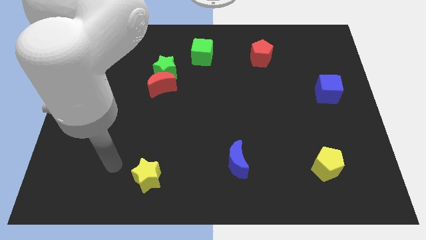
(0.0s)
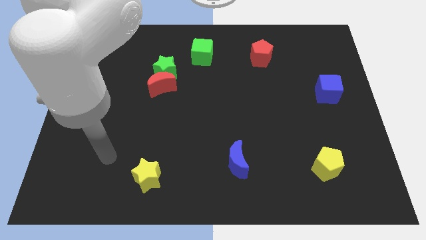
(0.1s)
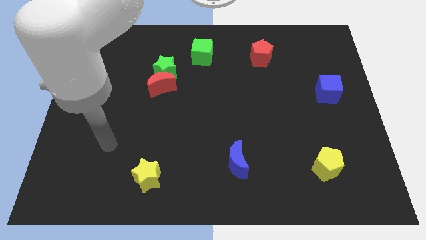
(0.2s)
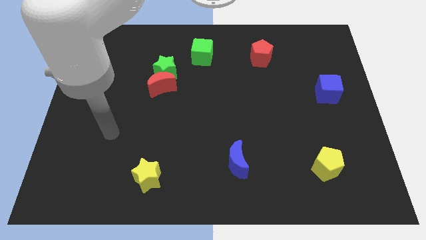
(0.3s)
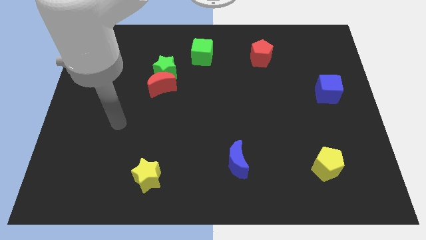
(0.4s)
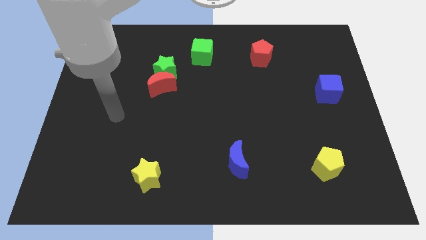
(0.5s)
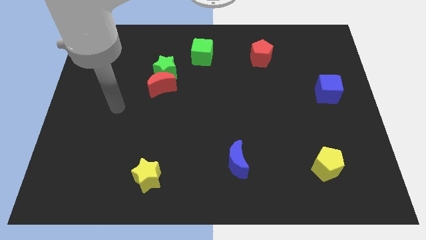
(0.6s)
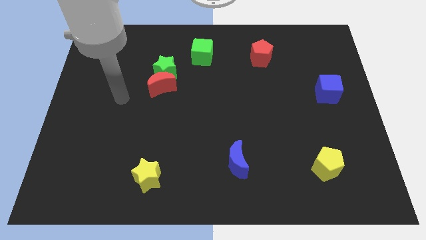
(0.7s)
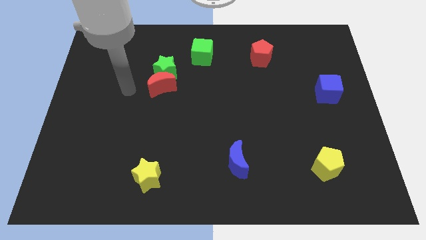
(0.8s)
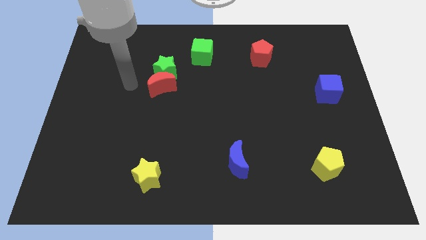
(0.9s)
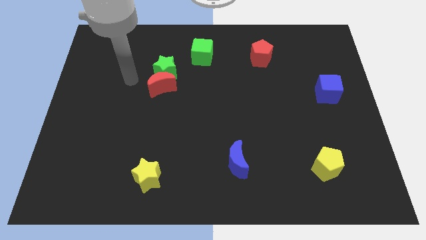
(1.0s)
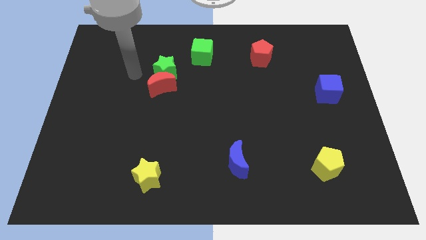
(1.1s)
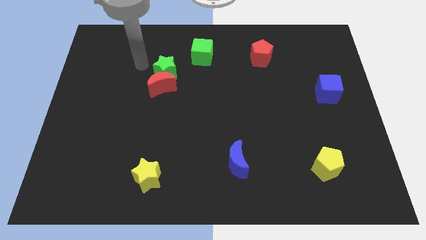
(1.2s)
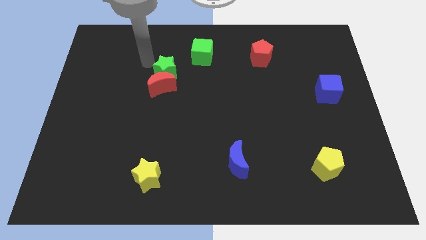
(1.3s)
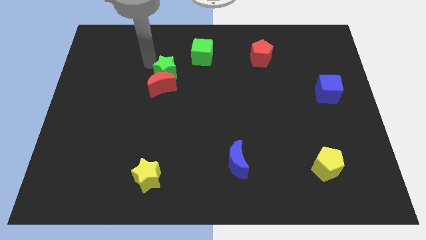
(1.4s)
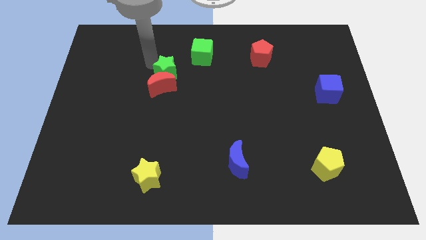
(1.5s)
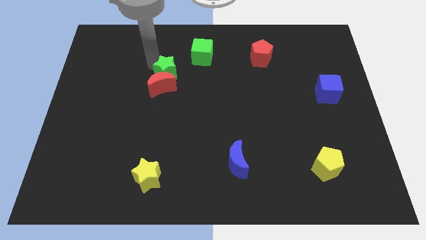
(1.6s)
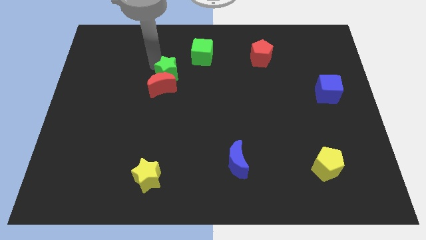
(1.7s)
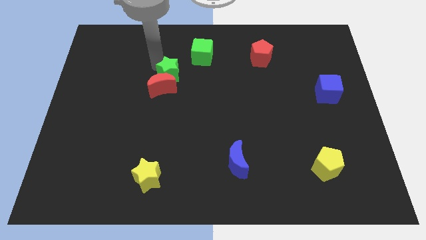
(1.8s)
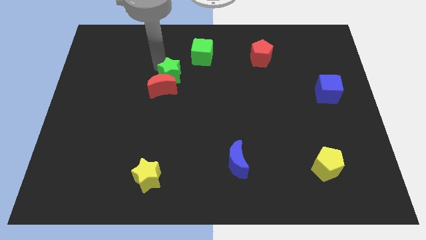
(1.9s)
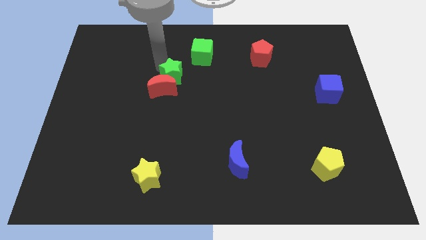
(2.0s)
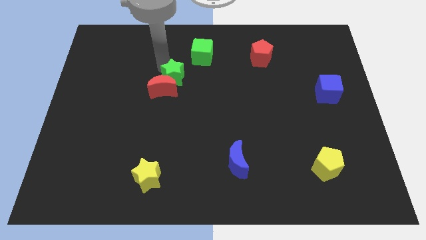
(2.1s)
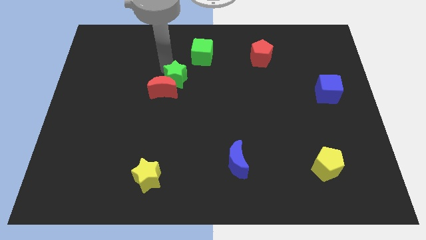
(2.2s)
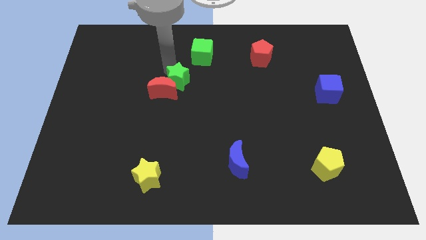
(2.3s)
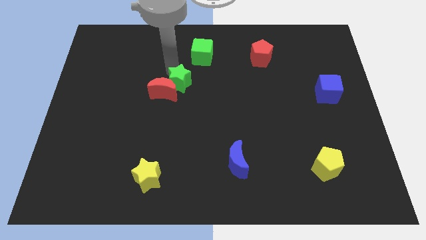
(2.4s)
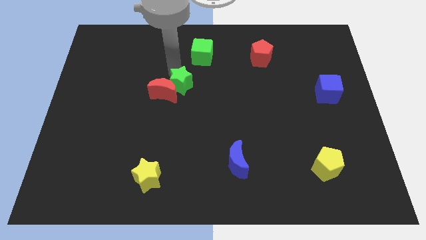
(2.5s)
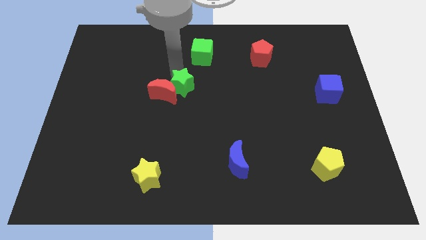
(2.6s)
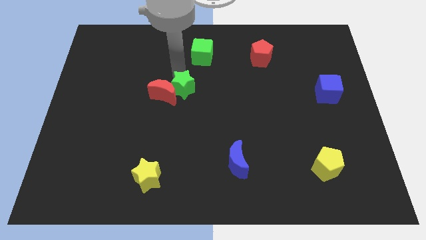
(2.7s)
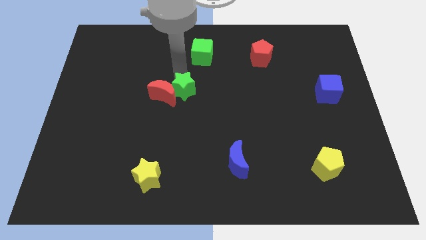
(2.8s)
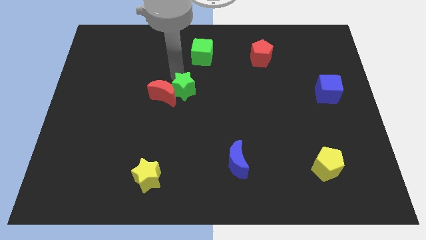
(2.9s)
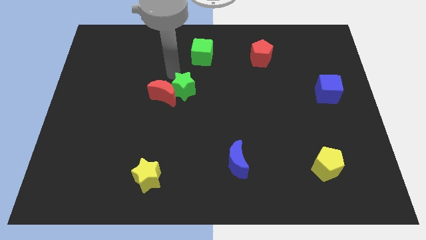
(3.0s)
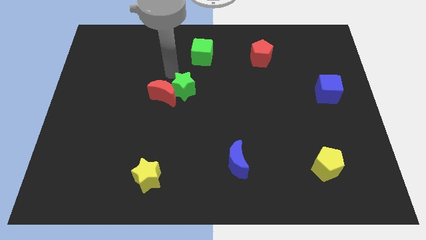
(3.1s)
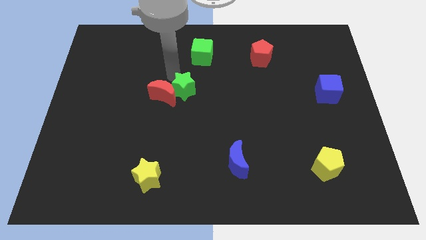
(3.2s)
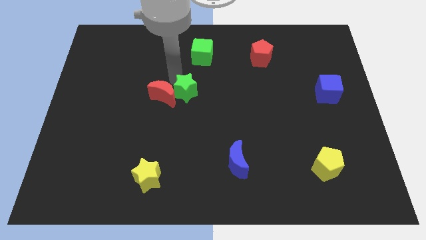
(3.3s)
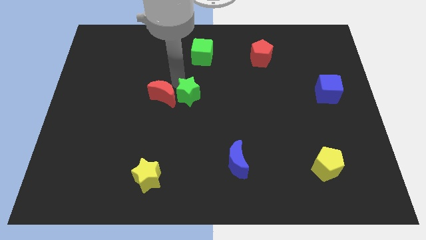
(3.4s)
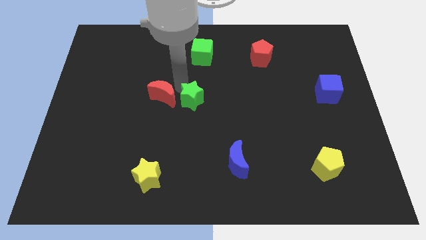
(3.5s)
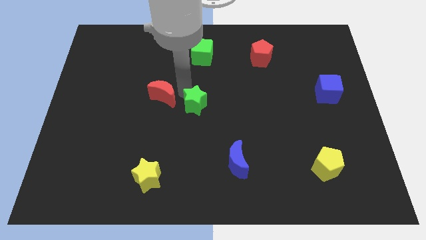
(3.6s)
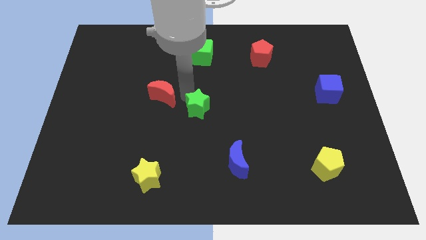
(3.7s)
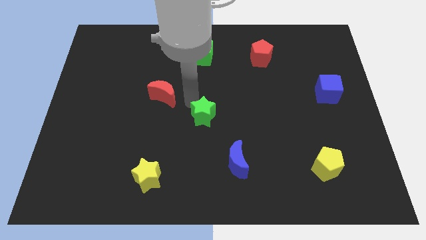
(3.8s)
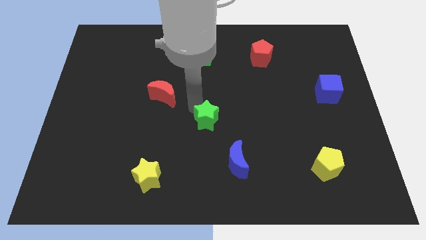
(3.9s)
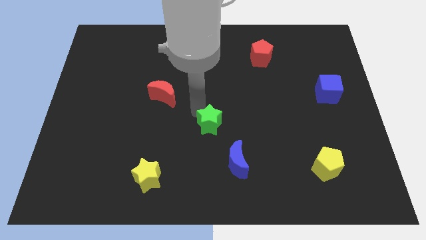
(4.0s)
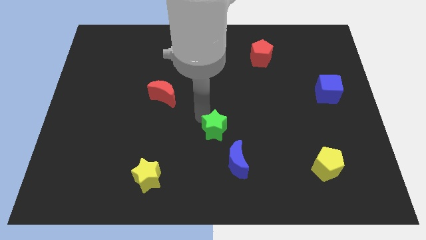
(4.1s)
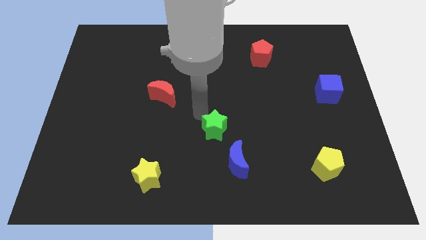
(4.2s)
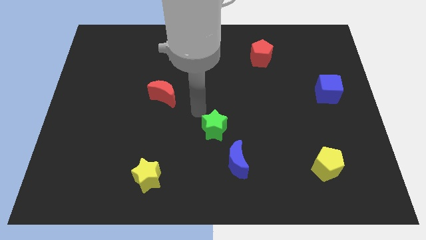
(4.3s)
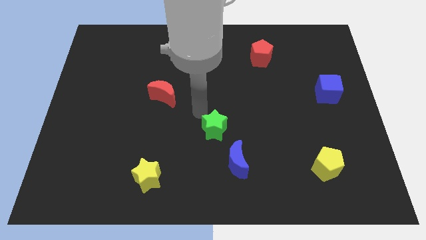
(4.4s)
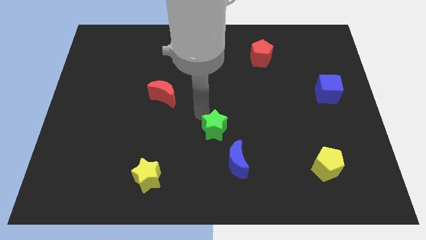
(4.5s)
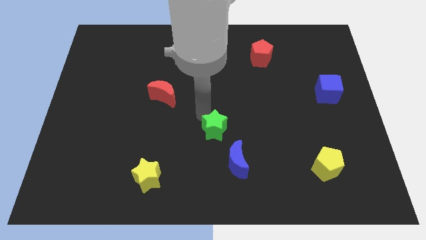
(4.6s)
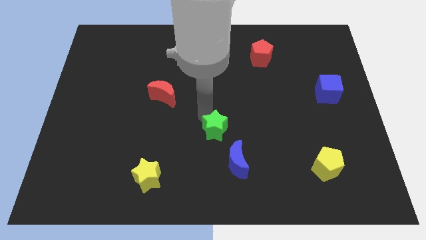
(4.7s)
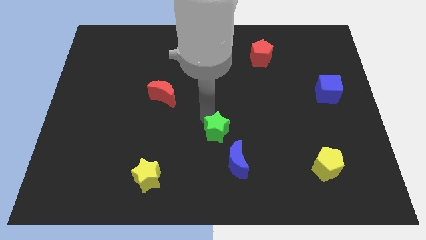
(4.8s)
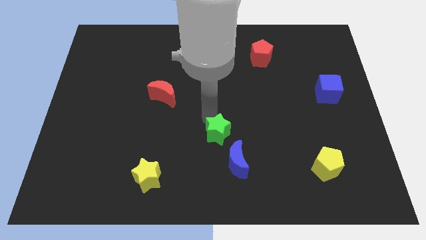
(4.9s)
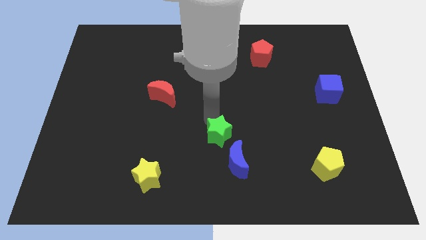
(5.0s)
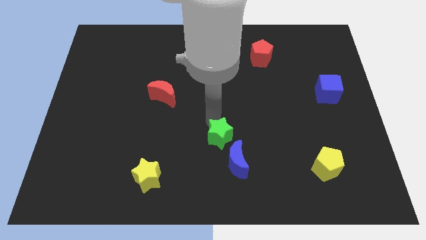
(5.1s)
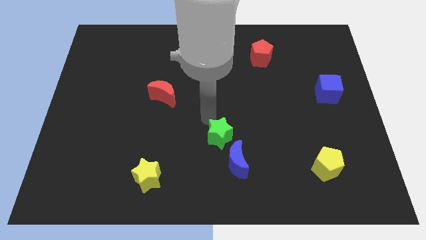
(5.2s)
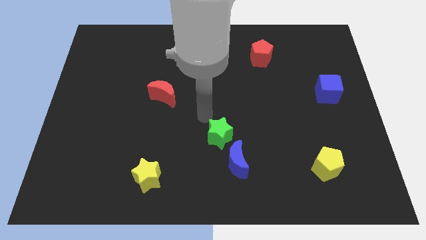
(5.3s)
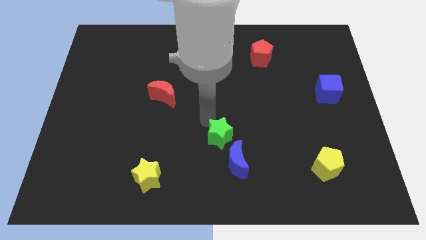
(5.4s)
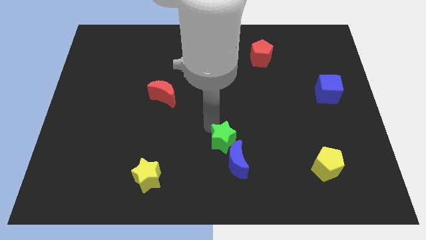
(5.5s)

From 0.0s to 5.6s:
put the green star to the blue moon

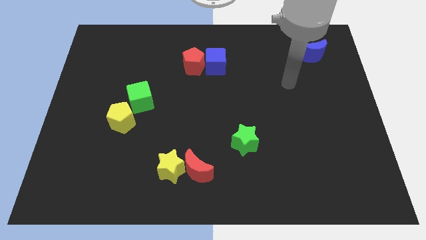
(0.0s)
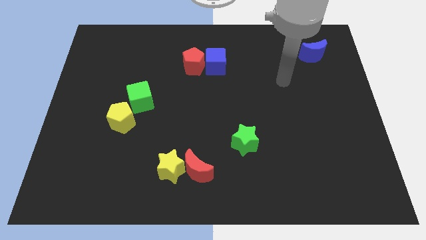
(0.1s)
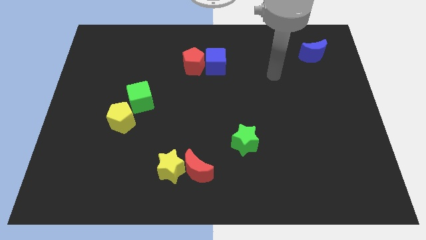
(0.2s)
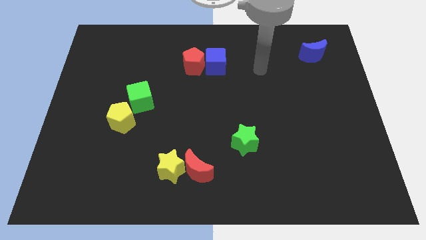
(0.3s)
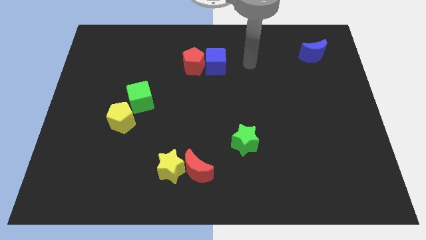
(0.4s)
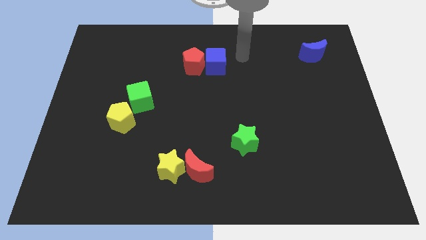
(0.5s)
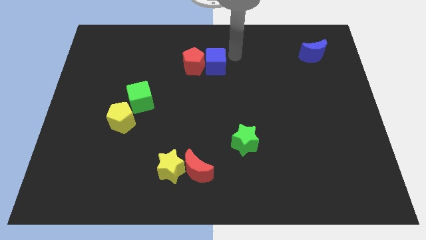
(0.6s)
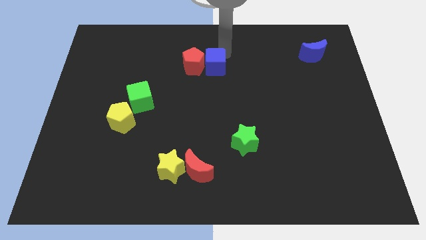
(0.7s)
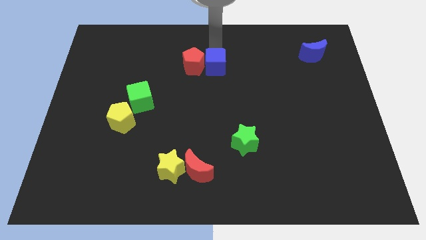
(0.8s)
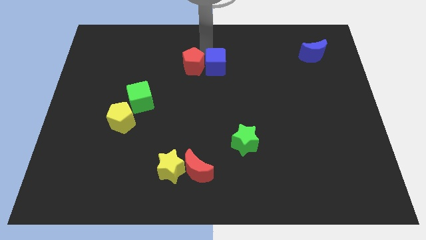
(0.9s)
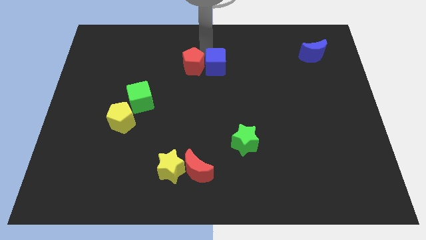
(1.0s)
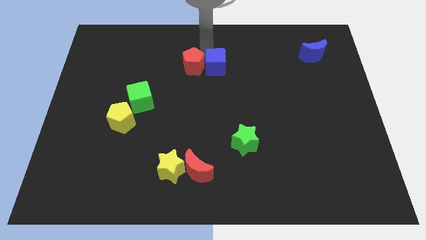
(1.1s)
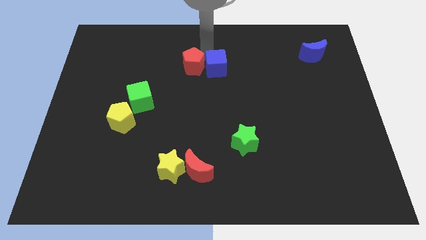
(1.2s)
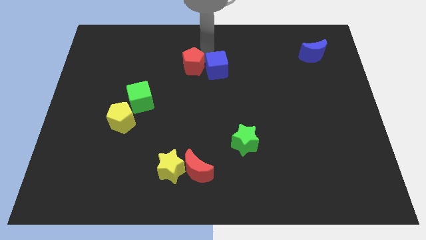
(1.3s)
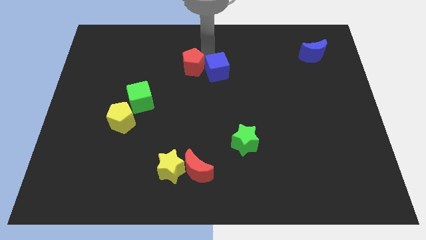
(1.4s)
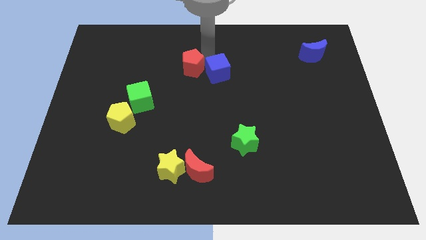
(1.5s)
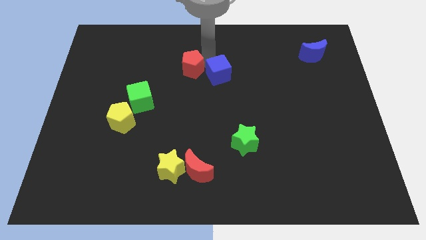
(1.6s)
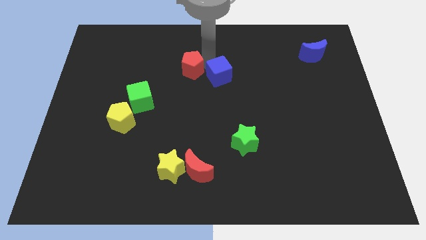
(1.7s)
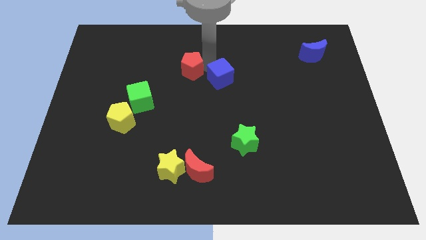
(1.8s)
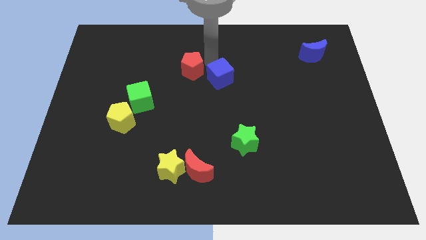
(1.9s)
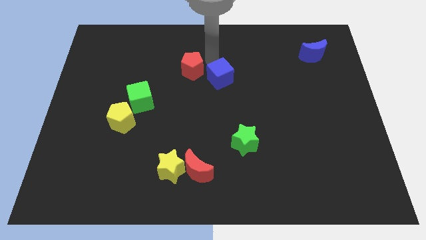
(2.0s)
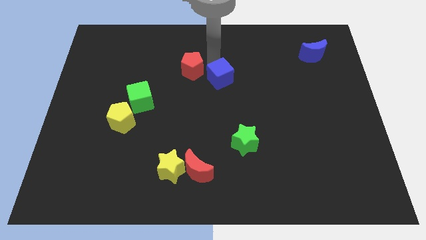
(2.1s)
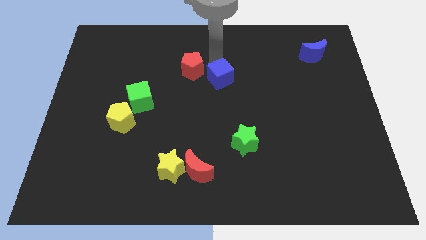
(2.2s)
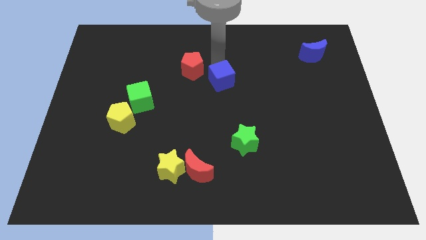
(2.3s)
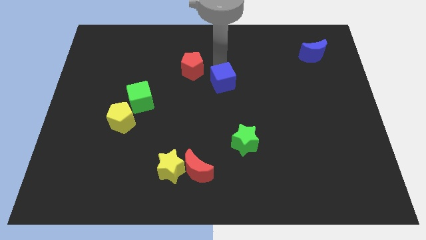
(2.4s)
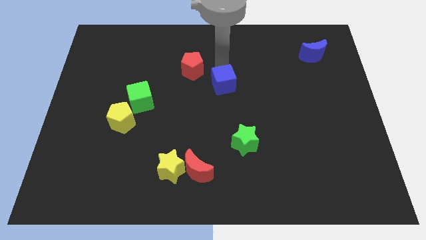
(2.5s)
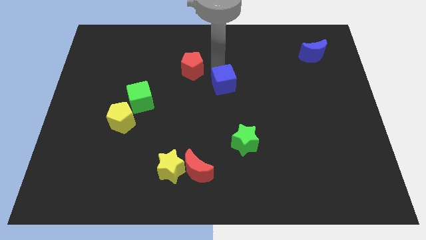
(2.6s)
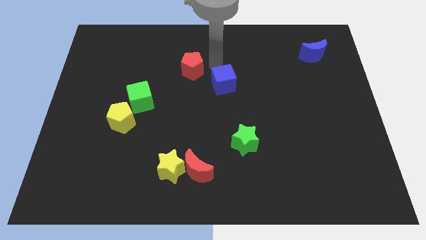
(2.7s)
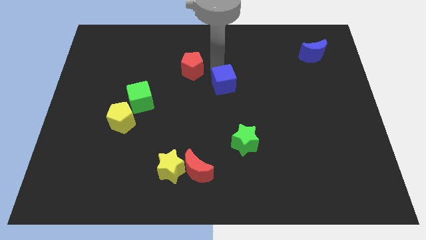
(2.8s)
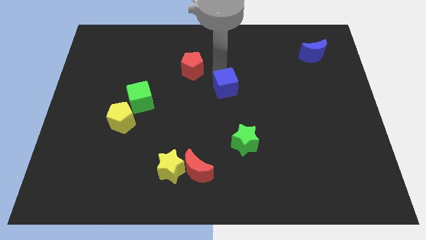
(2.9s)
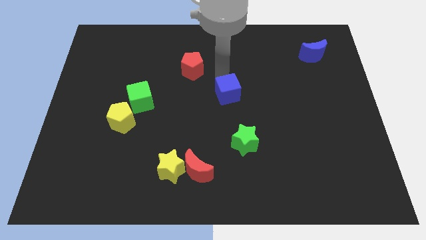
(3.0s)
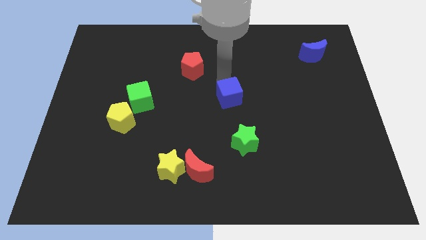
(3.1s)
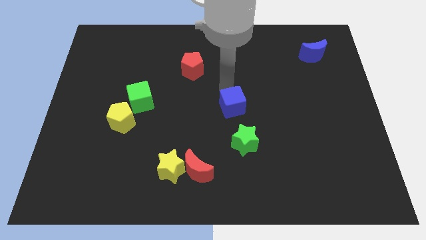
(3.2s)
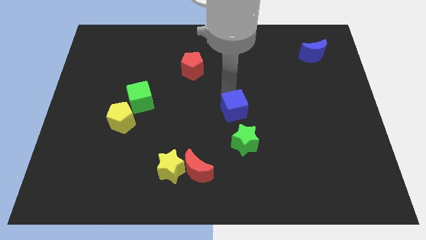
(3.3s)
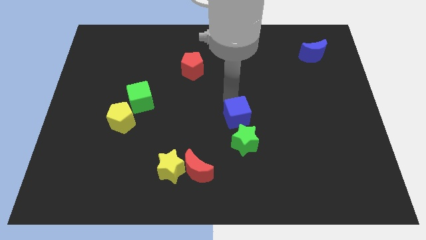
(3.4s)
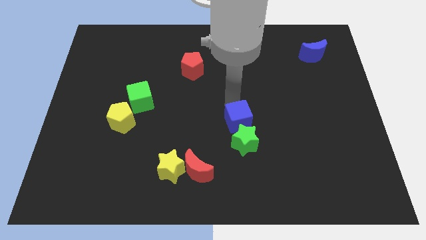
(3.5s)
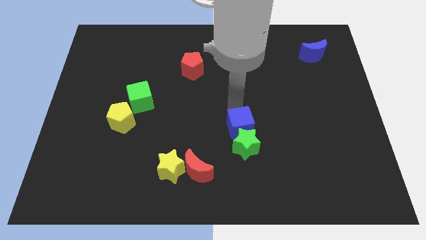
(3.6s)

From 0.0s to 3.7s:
slide the blue cube close to the green star
